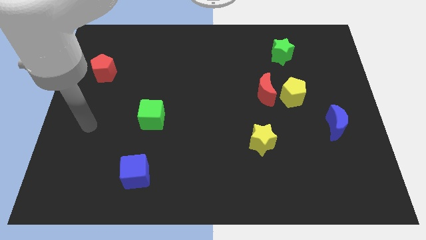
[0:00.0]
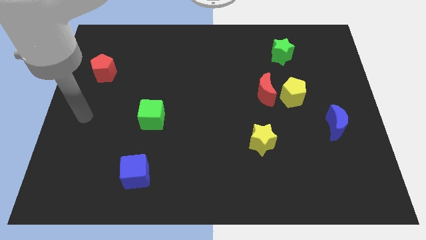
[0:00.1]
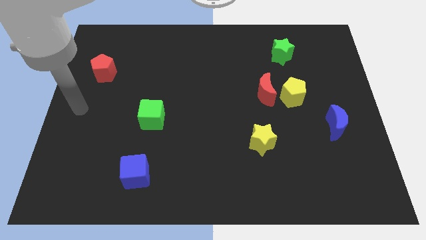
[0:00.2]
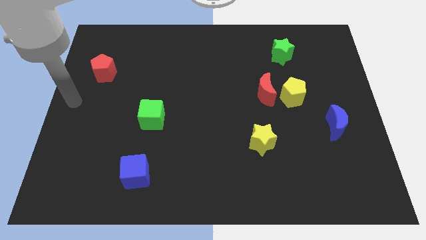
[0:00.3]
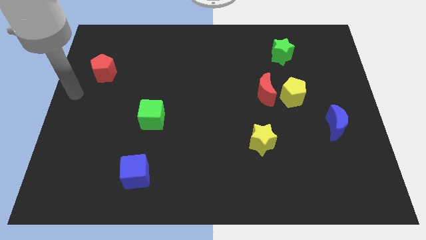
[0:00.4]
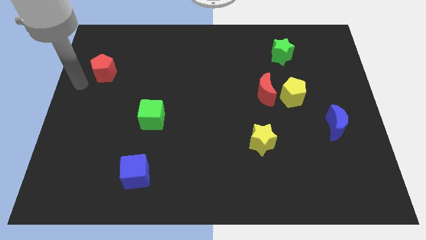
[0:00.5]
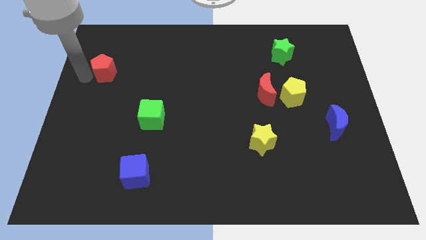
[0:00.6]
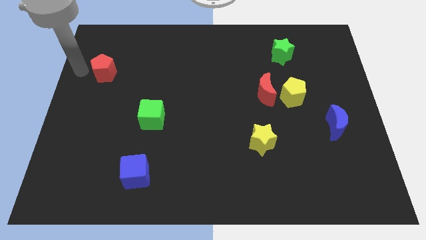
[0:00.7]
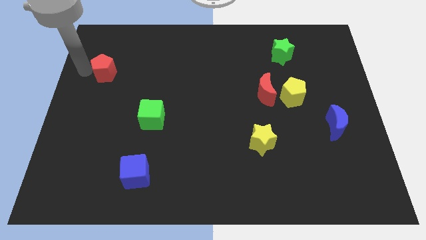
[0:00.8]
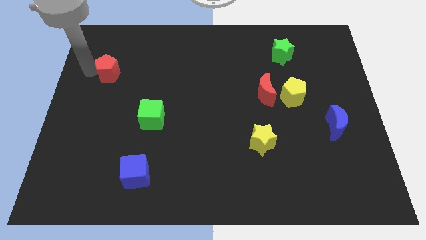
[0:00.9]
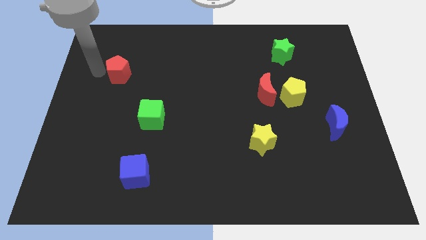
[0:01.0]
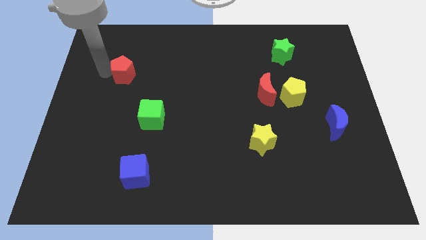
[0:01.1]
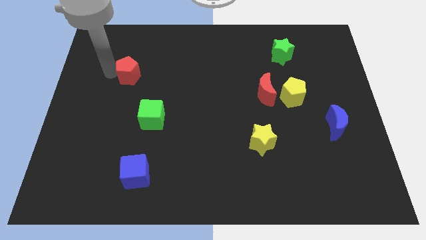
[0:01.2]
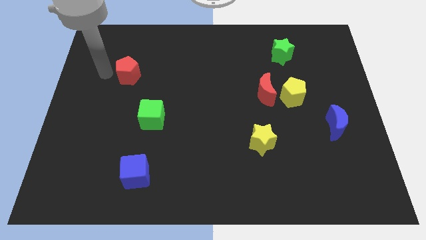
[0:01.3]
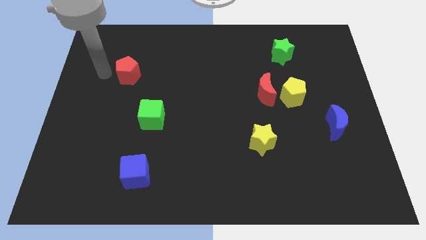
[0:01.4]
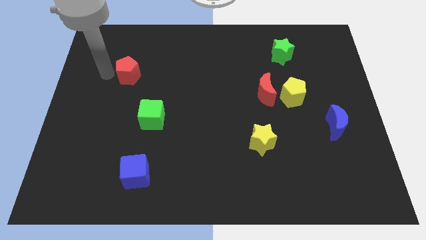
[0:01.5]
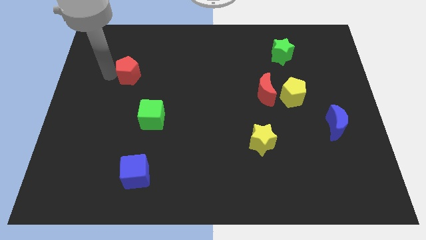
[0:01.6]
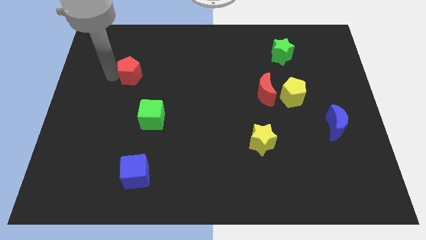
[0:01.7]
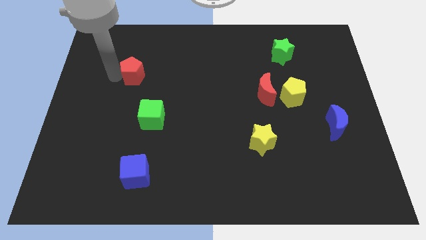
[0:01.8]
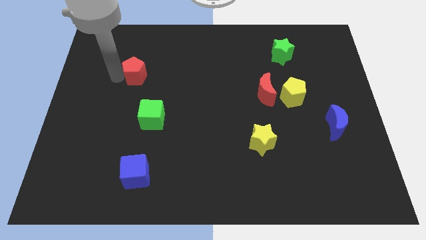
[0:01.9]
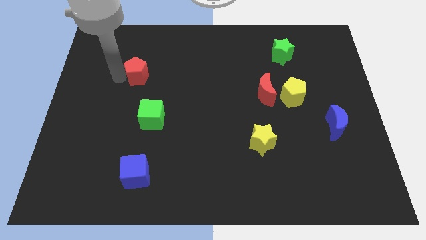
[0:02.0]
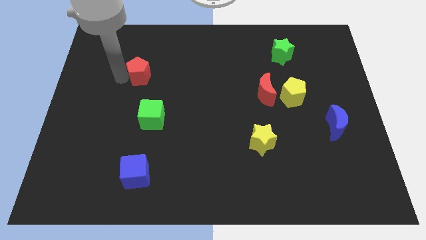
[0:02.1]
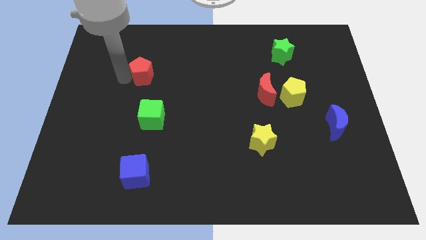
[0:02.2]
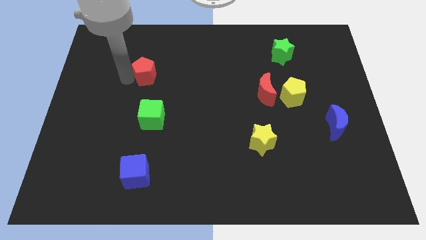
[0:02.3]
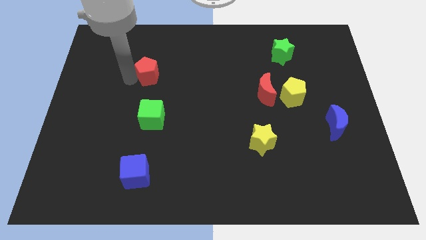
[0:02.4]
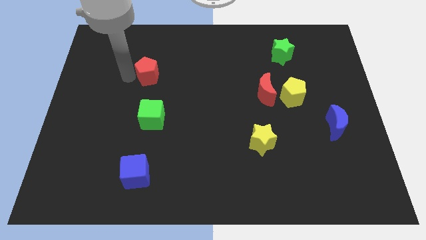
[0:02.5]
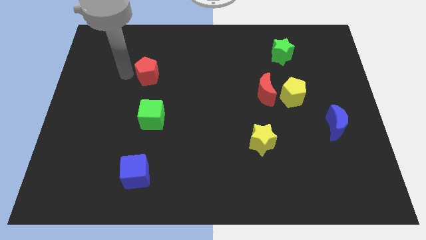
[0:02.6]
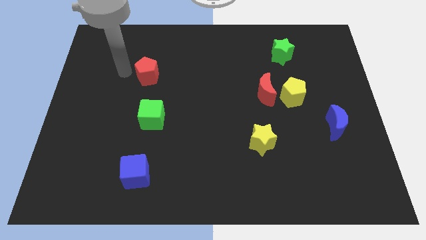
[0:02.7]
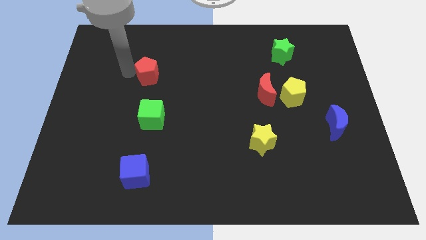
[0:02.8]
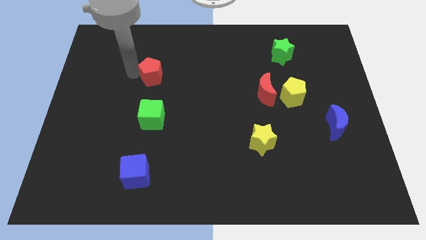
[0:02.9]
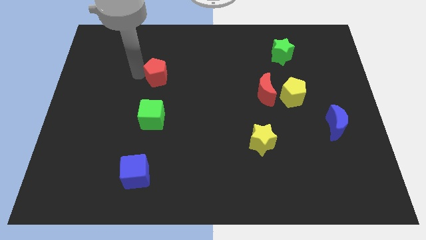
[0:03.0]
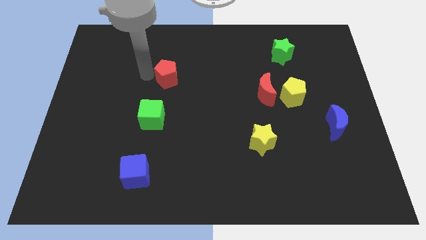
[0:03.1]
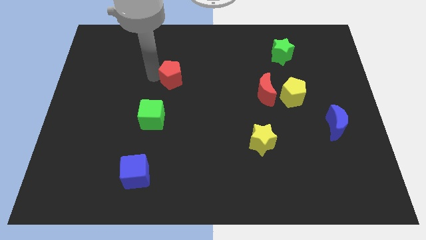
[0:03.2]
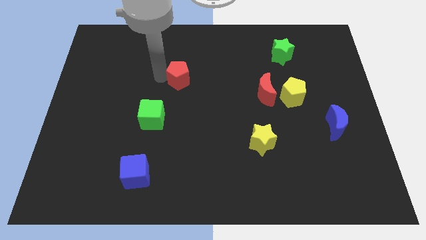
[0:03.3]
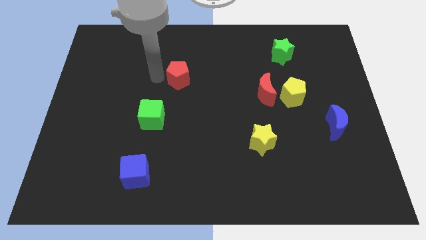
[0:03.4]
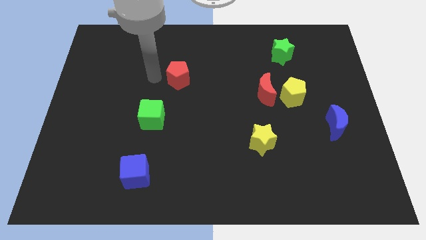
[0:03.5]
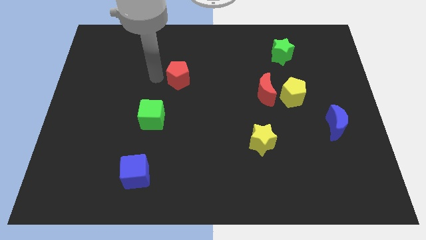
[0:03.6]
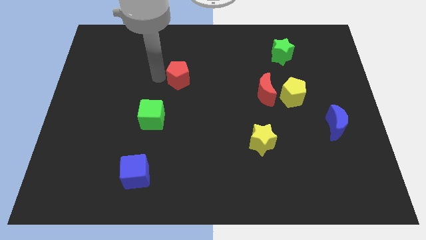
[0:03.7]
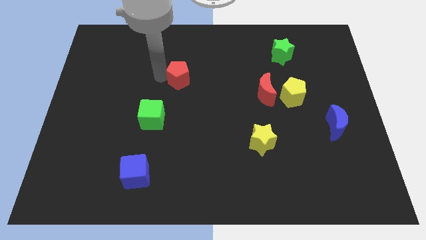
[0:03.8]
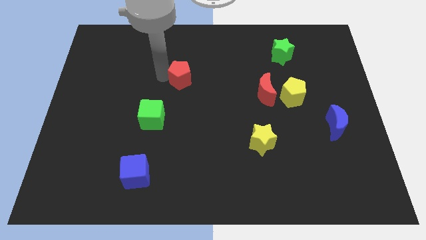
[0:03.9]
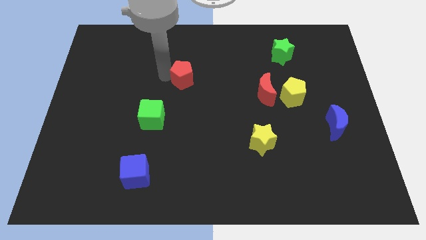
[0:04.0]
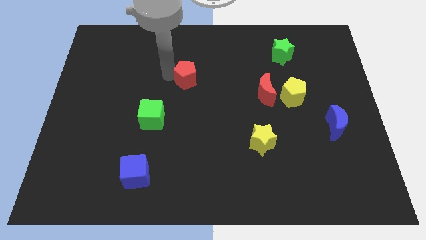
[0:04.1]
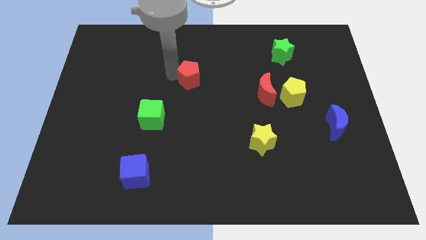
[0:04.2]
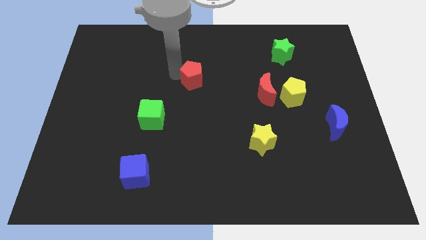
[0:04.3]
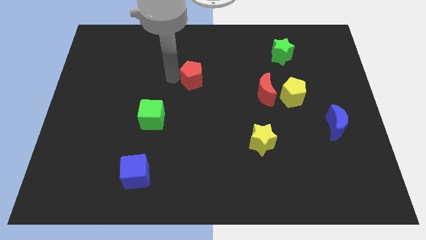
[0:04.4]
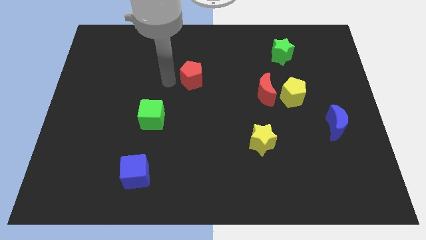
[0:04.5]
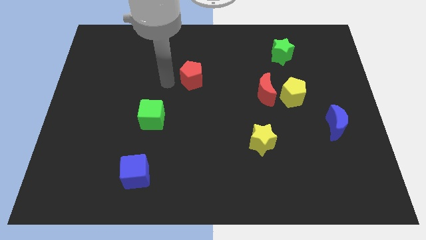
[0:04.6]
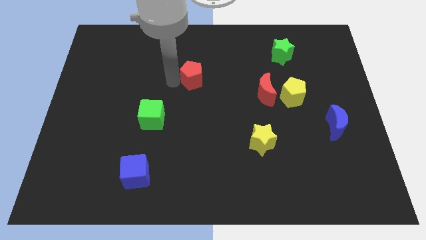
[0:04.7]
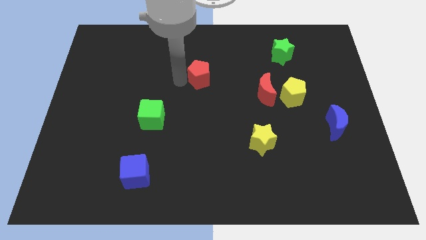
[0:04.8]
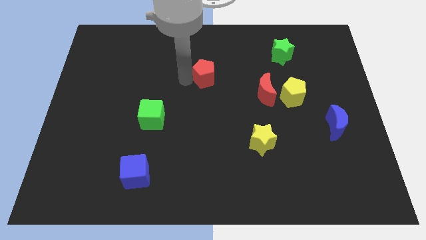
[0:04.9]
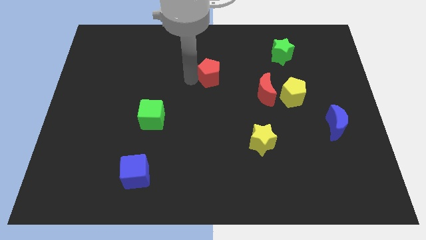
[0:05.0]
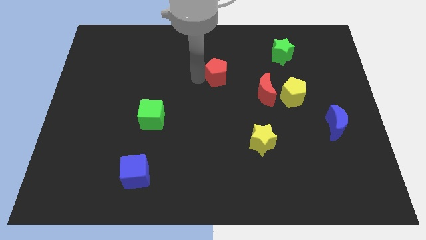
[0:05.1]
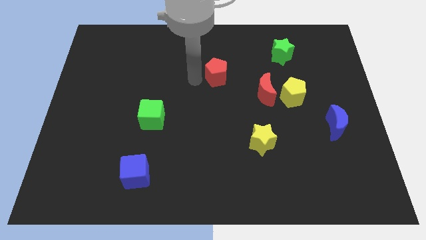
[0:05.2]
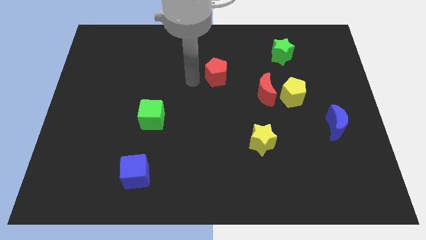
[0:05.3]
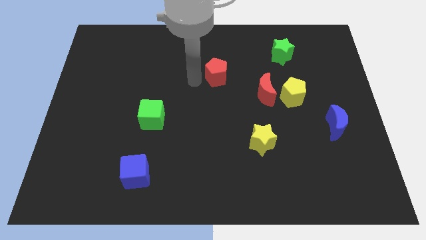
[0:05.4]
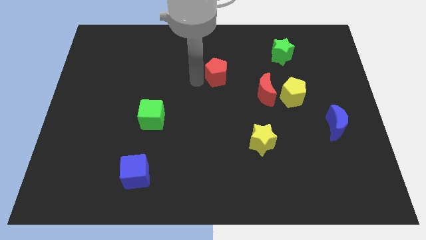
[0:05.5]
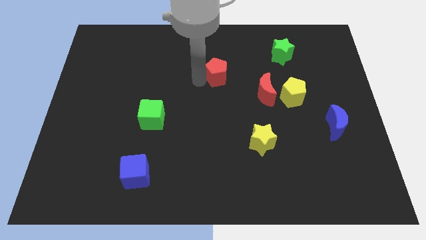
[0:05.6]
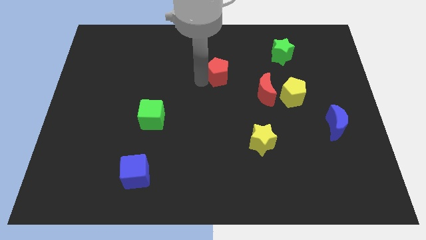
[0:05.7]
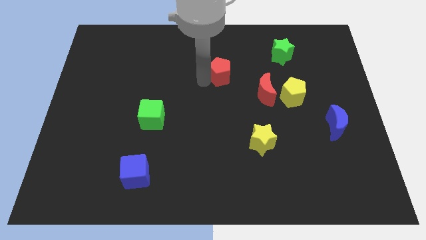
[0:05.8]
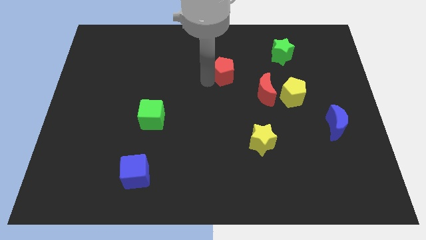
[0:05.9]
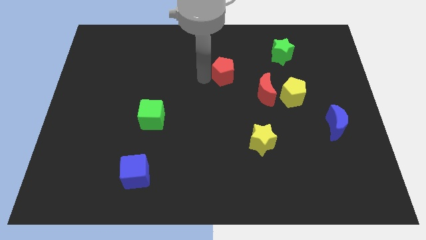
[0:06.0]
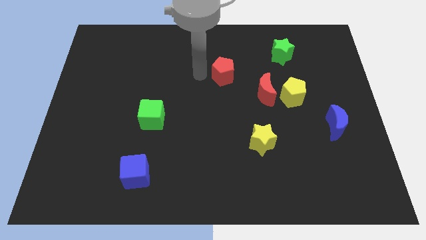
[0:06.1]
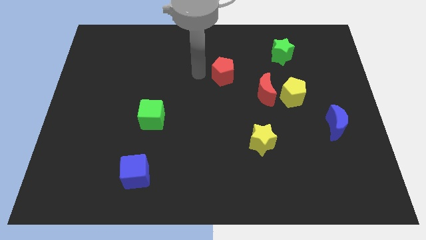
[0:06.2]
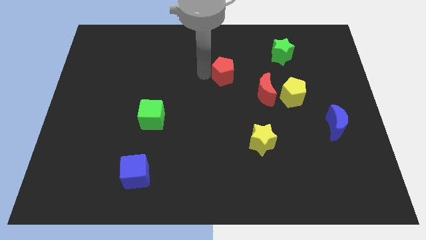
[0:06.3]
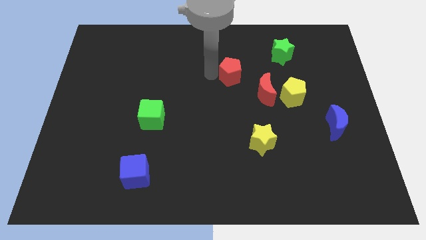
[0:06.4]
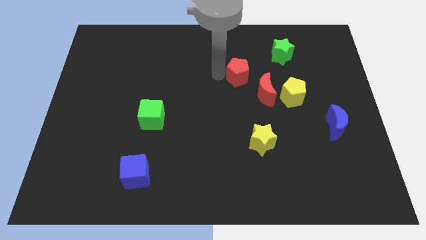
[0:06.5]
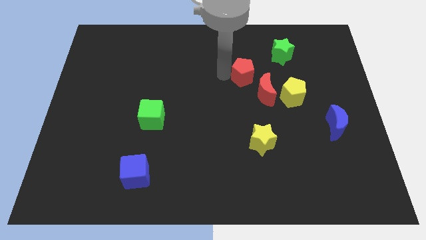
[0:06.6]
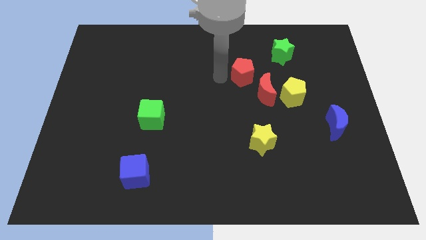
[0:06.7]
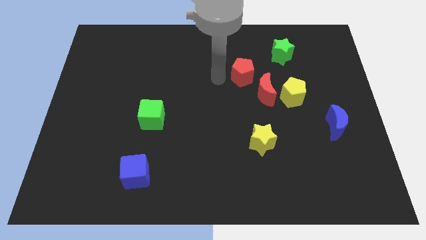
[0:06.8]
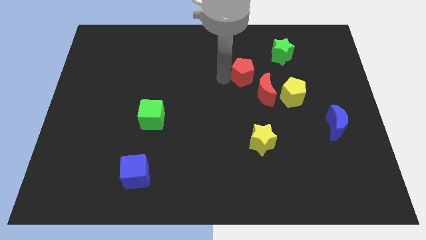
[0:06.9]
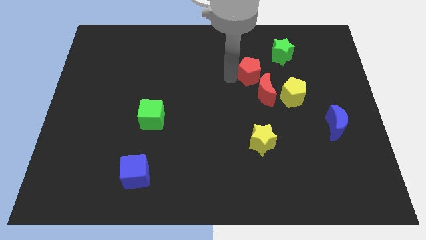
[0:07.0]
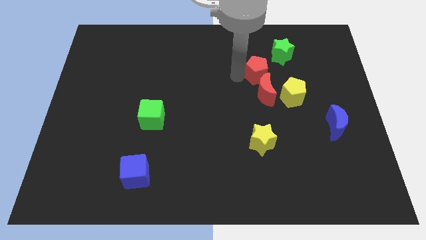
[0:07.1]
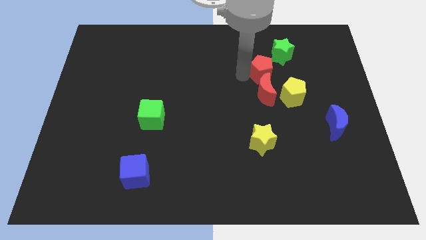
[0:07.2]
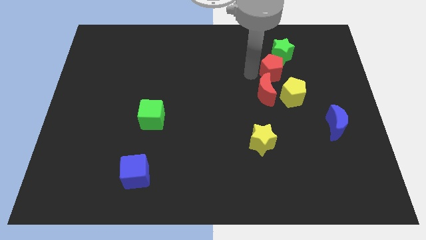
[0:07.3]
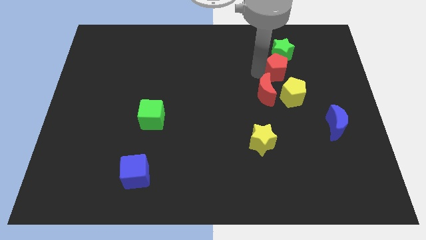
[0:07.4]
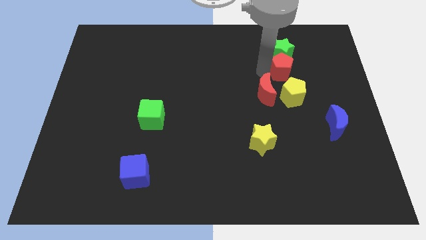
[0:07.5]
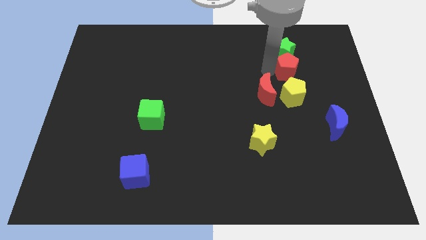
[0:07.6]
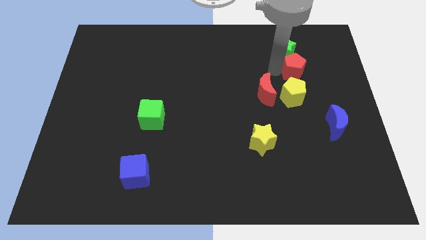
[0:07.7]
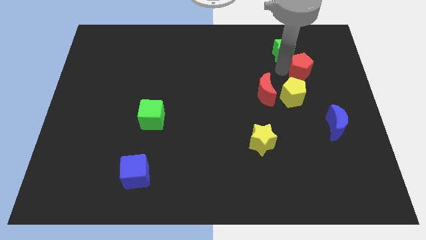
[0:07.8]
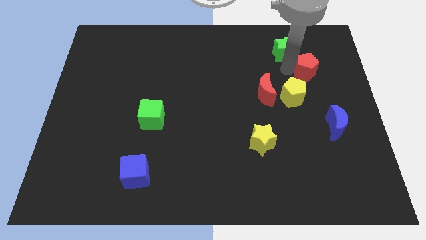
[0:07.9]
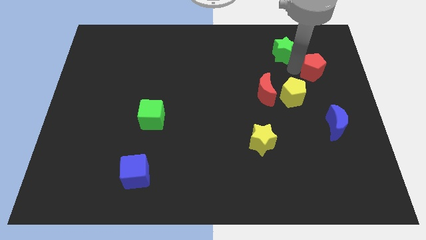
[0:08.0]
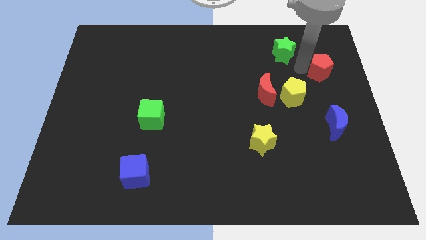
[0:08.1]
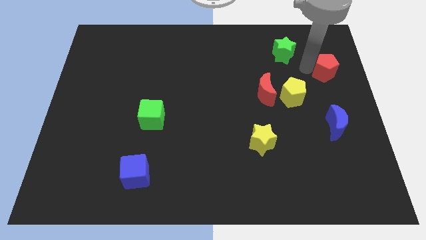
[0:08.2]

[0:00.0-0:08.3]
slide the red pentagon to the right side
